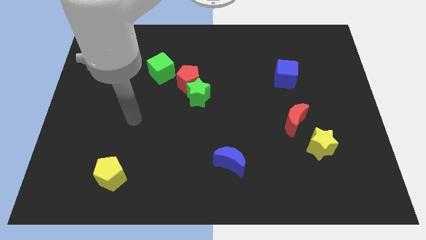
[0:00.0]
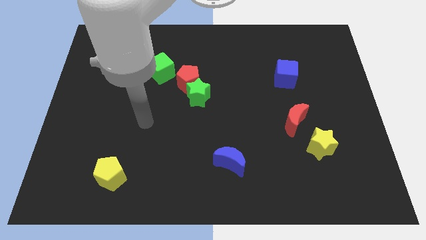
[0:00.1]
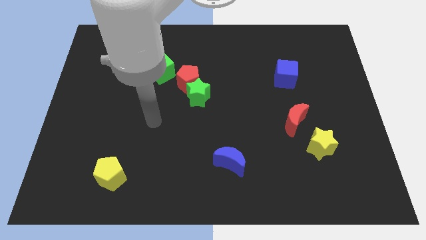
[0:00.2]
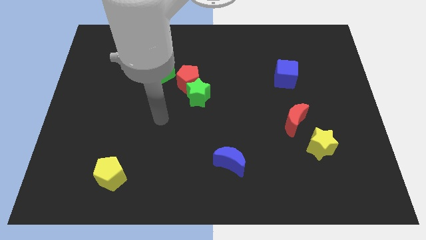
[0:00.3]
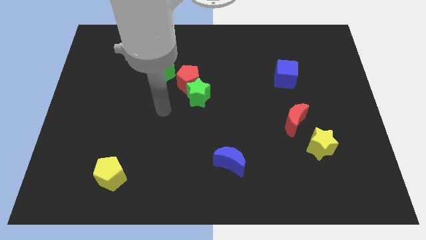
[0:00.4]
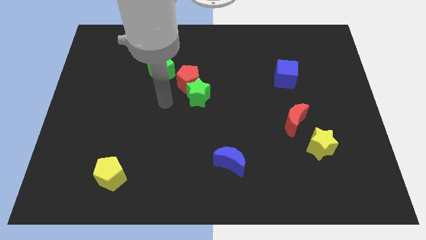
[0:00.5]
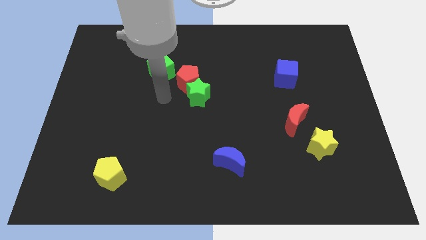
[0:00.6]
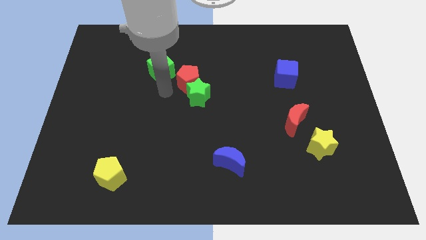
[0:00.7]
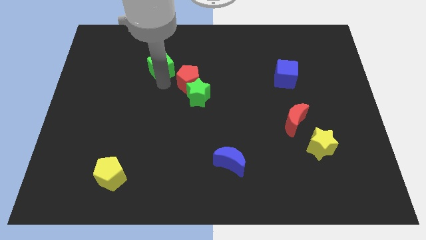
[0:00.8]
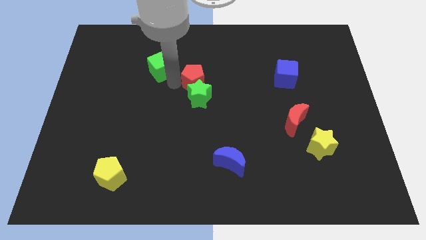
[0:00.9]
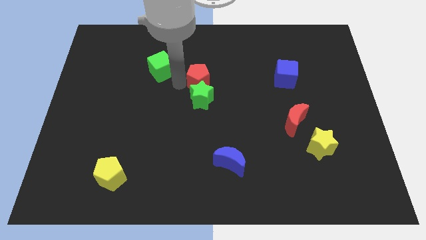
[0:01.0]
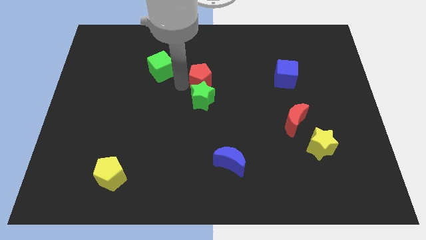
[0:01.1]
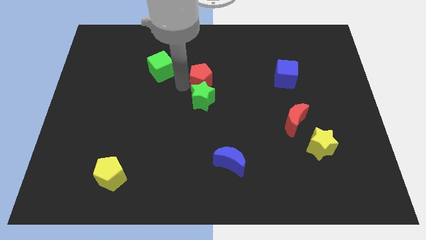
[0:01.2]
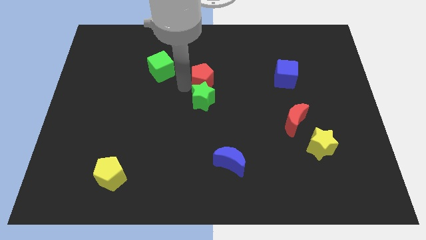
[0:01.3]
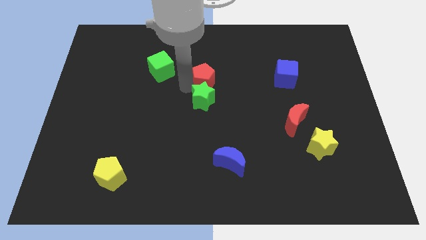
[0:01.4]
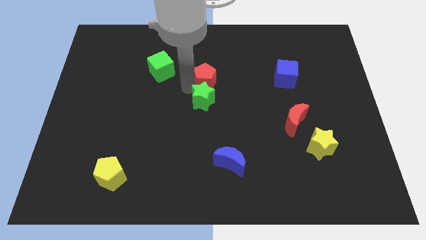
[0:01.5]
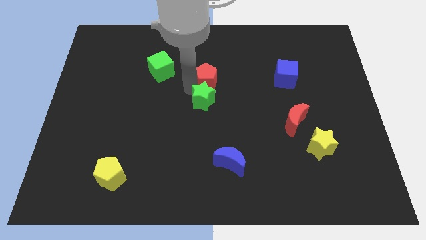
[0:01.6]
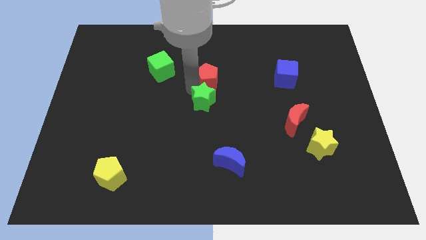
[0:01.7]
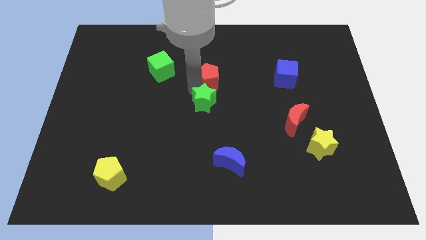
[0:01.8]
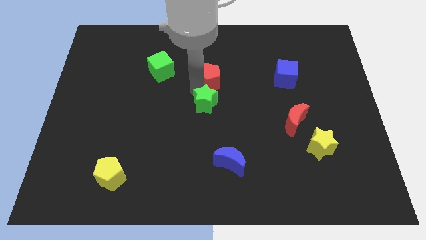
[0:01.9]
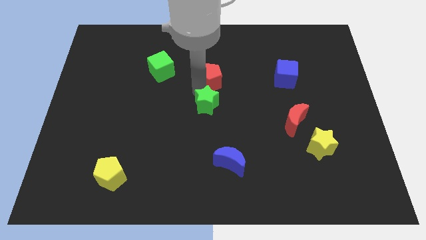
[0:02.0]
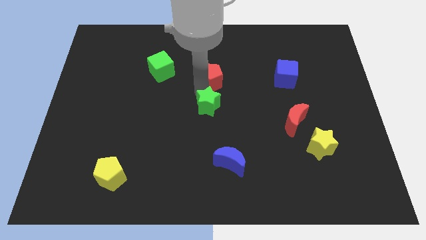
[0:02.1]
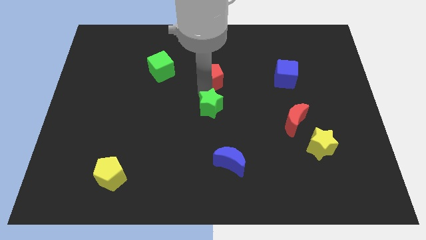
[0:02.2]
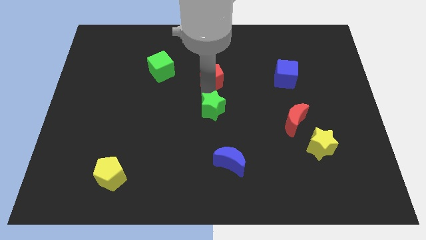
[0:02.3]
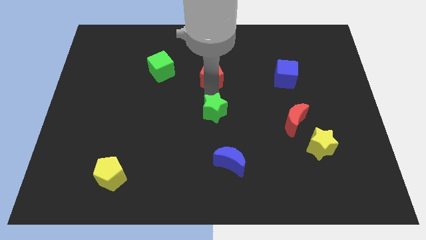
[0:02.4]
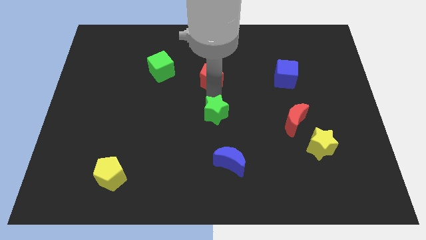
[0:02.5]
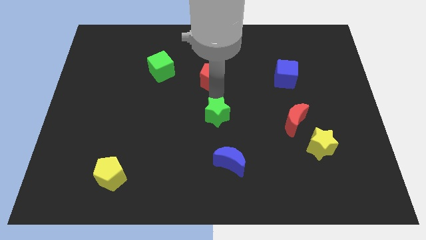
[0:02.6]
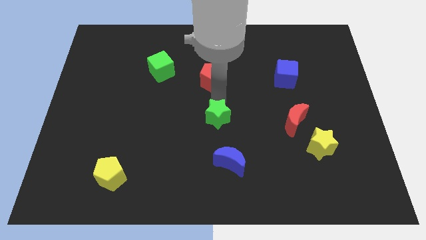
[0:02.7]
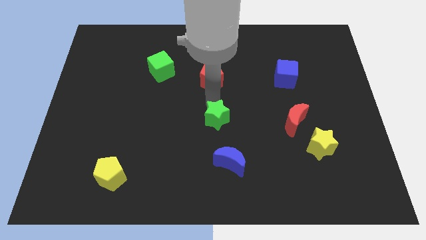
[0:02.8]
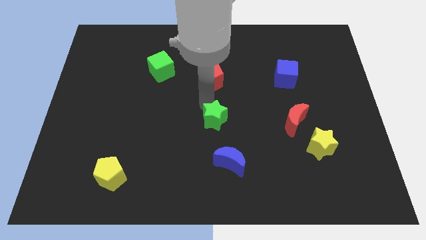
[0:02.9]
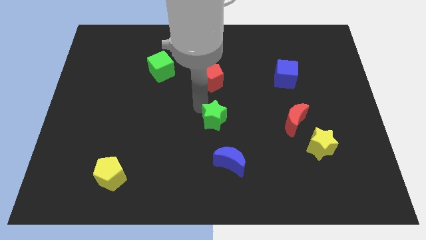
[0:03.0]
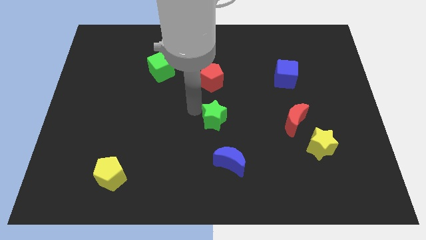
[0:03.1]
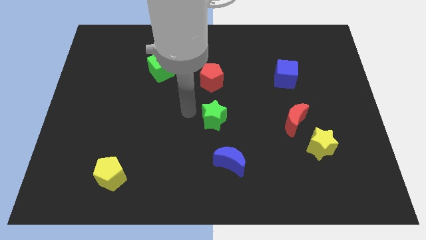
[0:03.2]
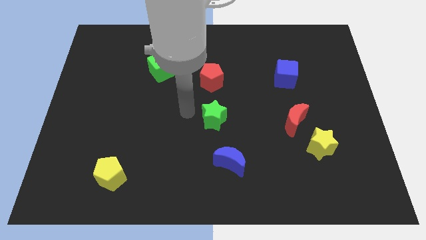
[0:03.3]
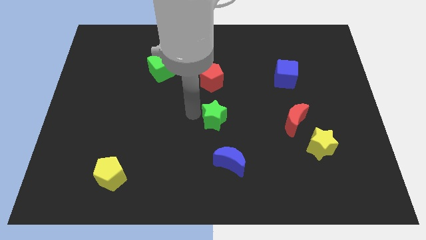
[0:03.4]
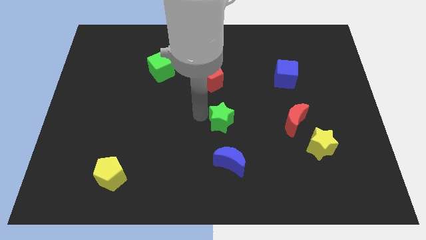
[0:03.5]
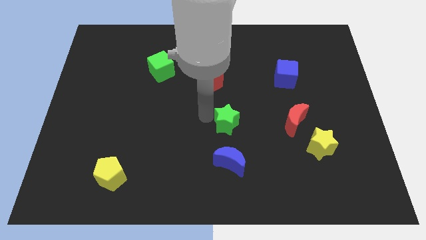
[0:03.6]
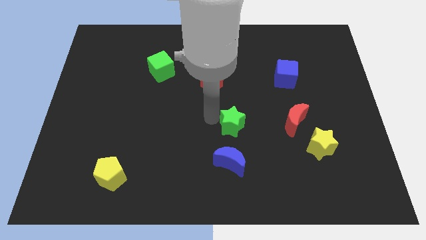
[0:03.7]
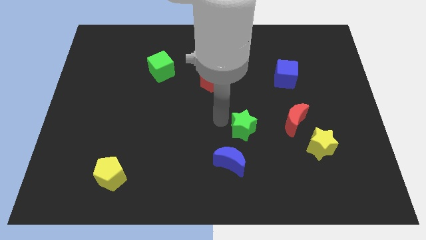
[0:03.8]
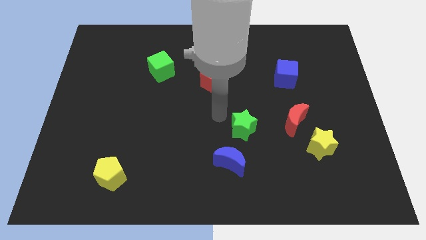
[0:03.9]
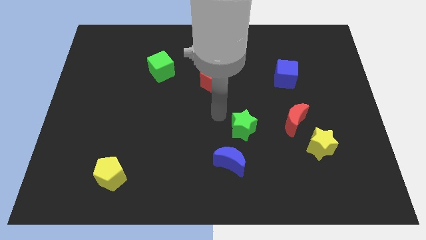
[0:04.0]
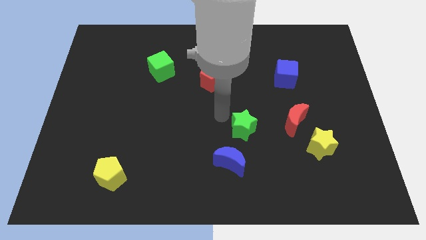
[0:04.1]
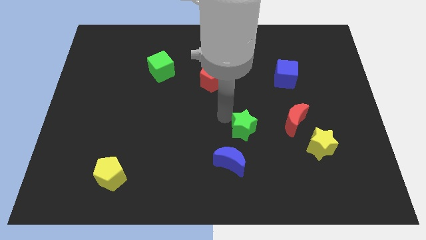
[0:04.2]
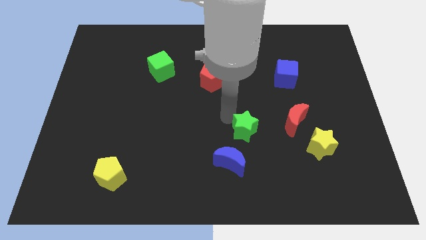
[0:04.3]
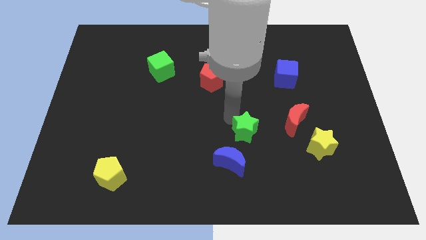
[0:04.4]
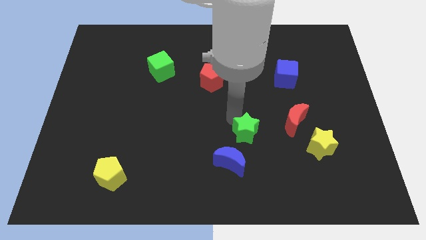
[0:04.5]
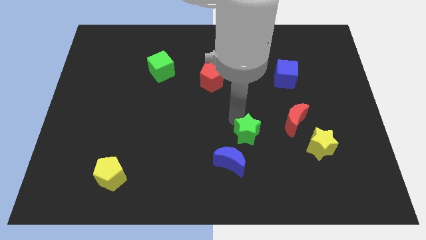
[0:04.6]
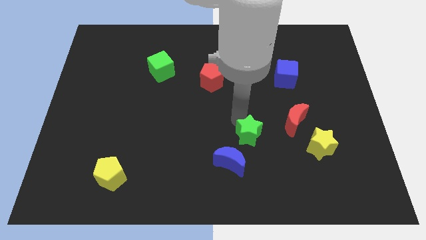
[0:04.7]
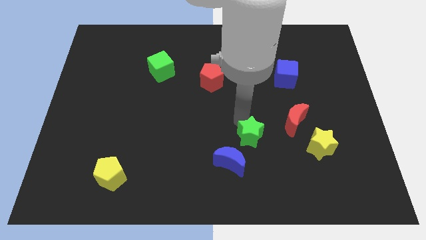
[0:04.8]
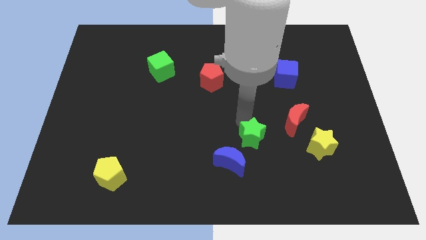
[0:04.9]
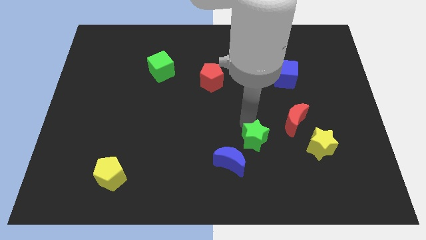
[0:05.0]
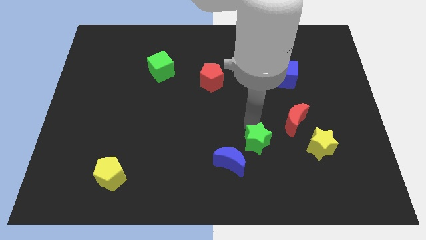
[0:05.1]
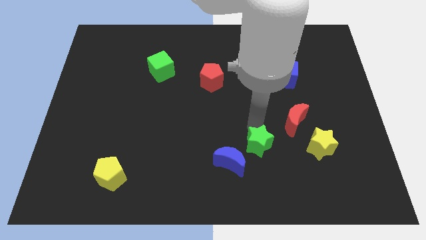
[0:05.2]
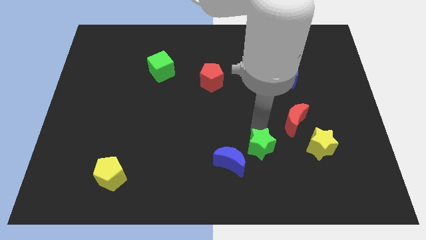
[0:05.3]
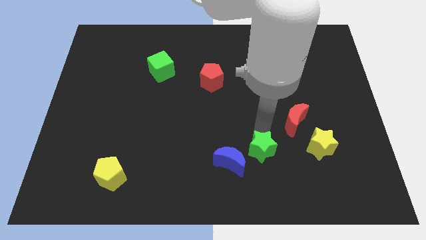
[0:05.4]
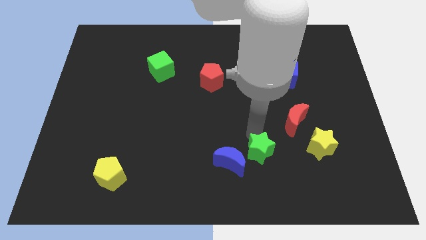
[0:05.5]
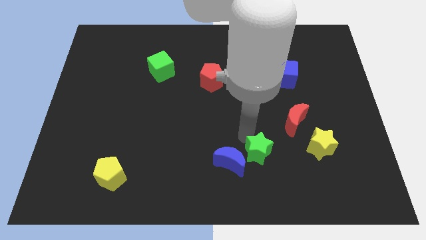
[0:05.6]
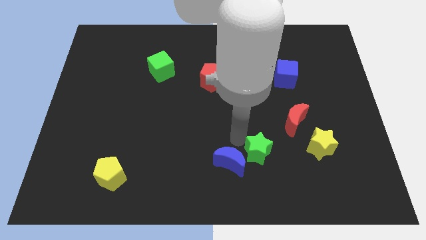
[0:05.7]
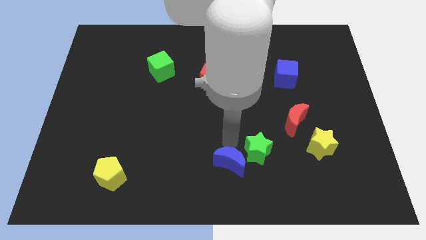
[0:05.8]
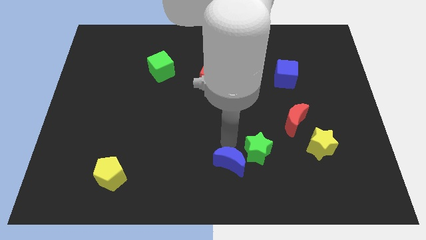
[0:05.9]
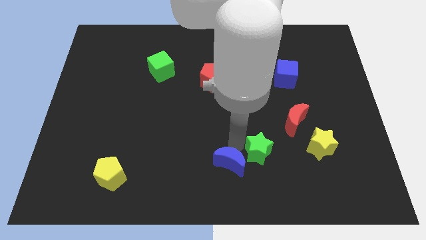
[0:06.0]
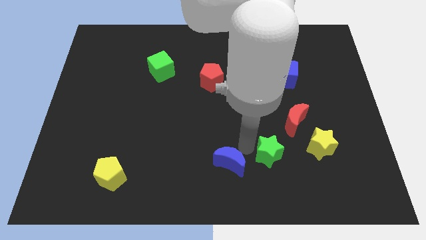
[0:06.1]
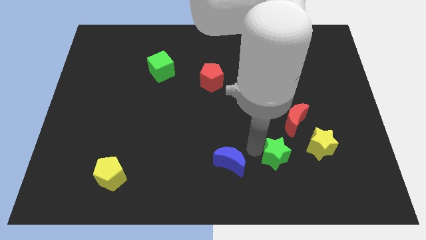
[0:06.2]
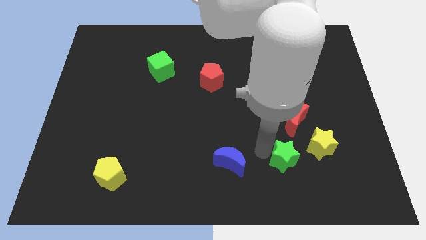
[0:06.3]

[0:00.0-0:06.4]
move the green star to the bottom of the red moon

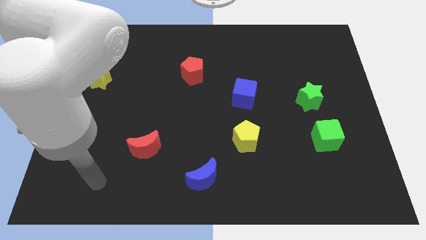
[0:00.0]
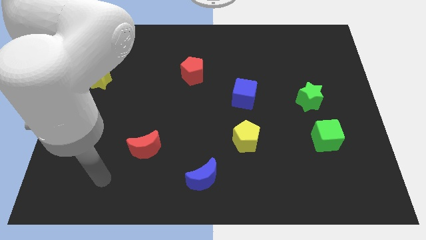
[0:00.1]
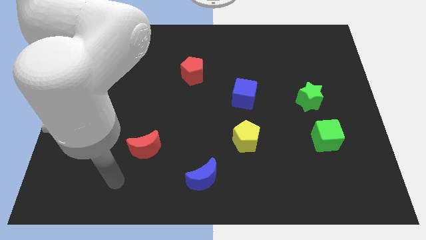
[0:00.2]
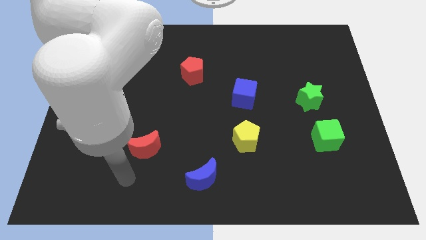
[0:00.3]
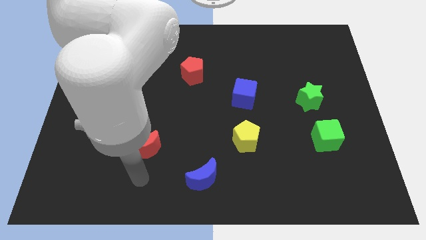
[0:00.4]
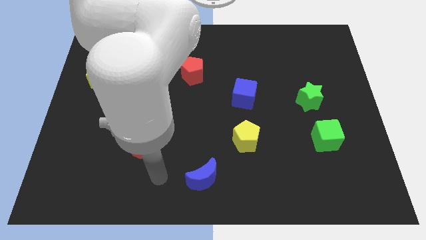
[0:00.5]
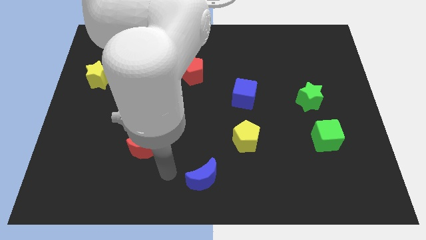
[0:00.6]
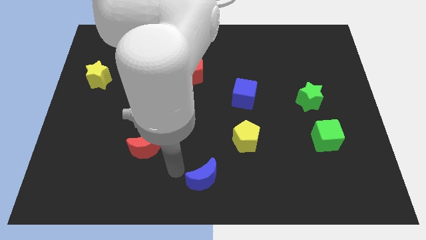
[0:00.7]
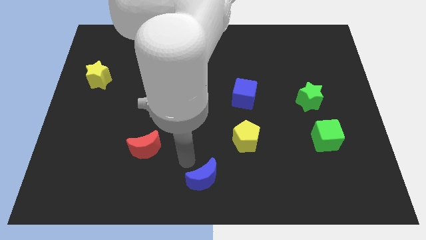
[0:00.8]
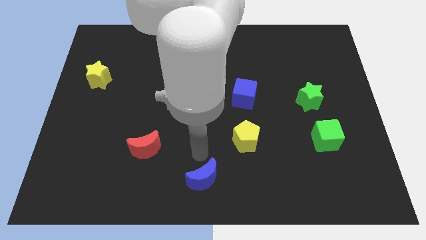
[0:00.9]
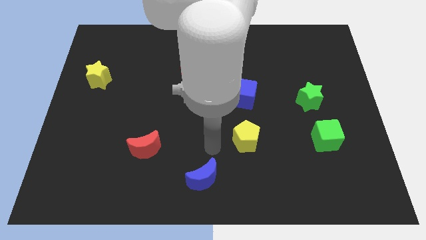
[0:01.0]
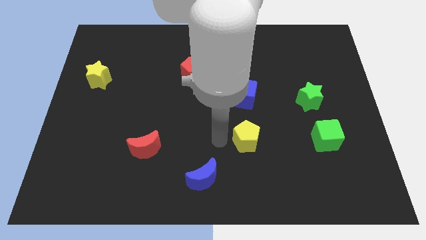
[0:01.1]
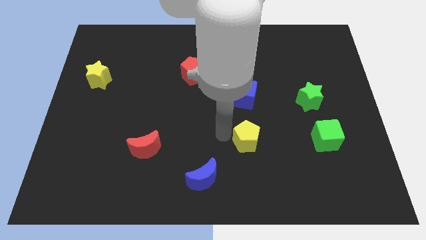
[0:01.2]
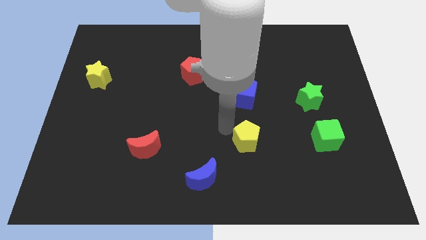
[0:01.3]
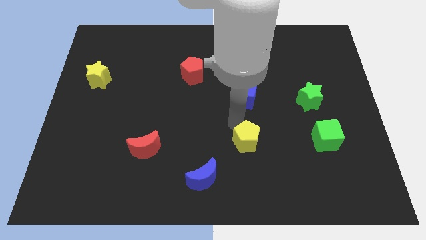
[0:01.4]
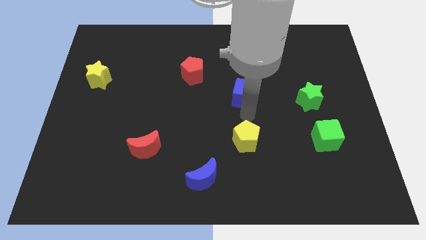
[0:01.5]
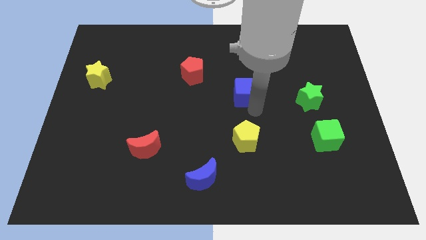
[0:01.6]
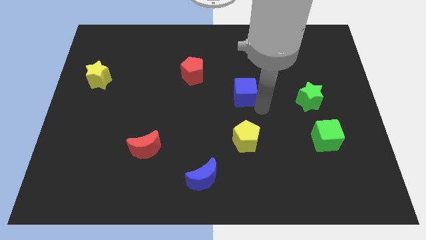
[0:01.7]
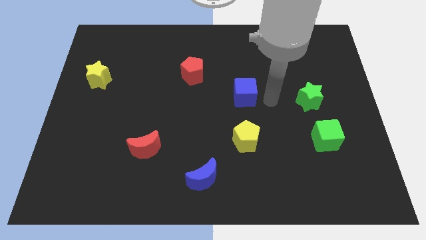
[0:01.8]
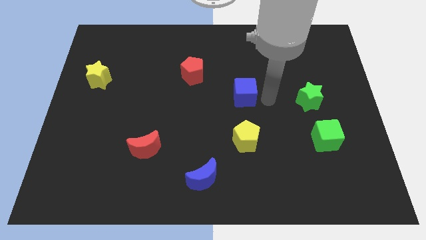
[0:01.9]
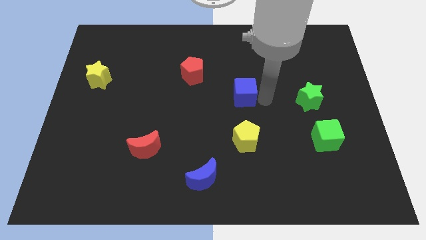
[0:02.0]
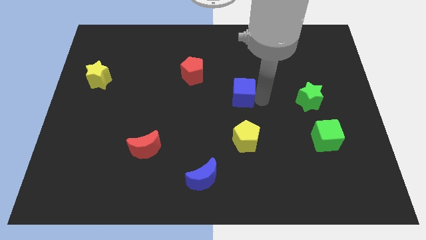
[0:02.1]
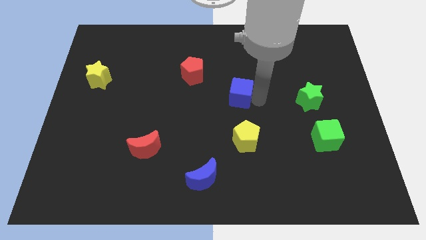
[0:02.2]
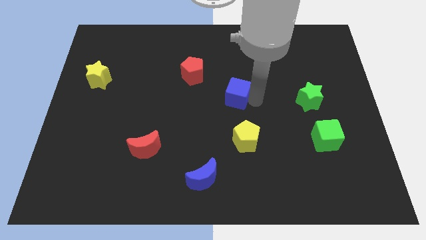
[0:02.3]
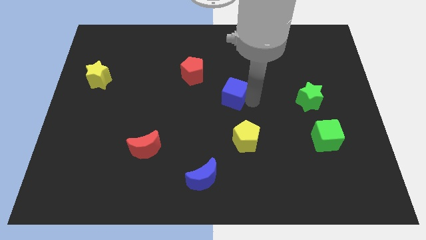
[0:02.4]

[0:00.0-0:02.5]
slide the blue cube to the bottom right side of the red pentagon
